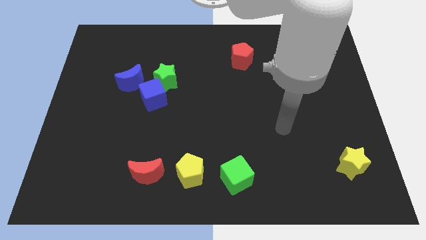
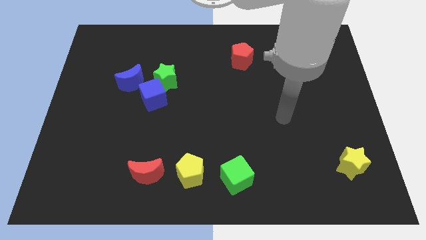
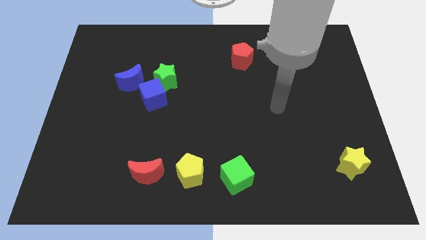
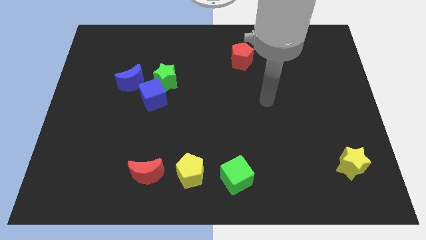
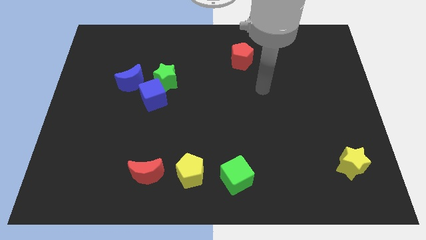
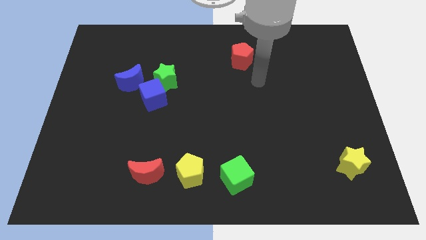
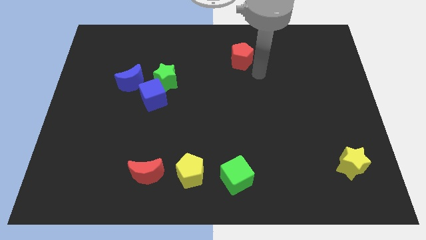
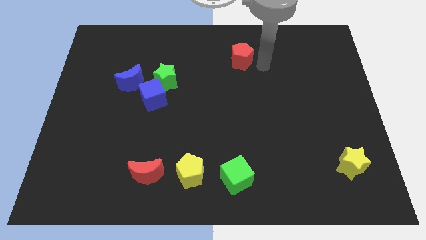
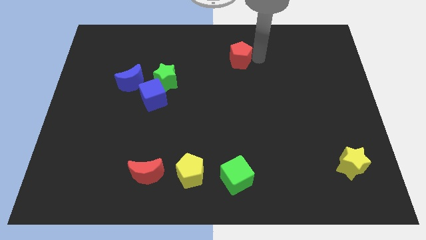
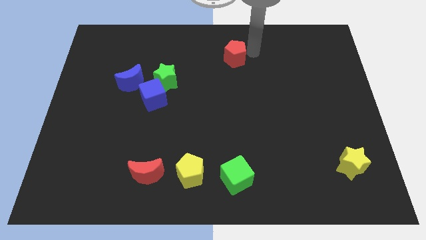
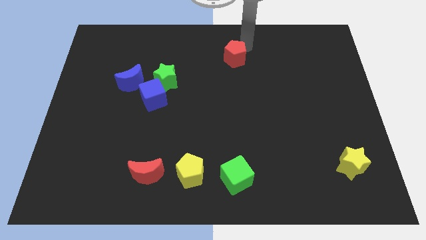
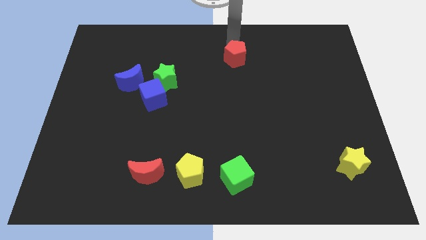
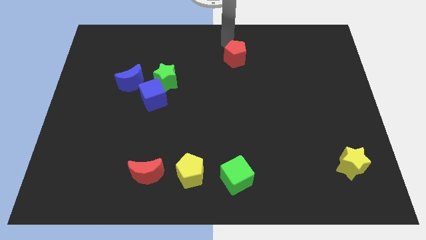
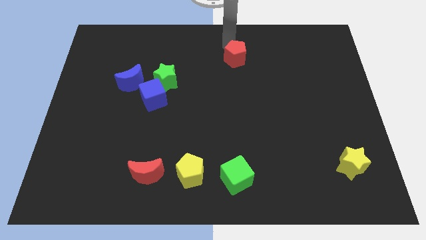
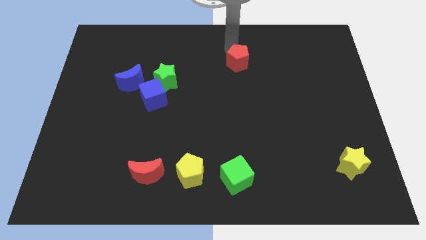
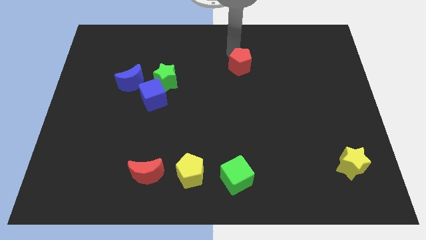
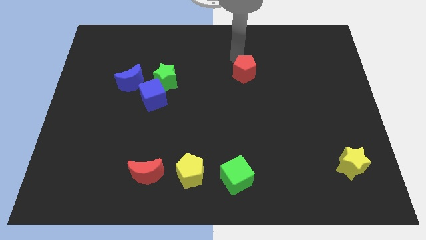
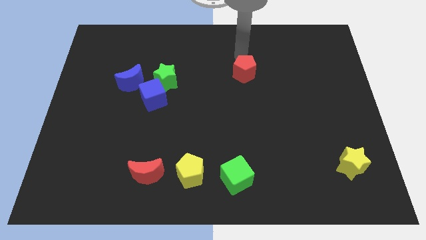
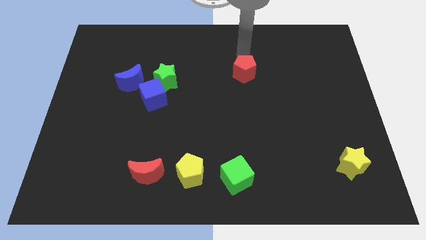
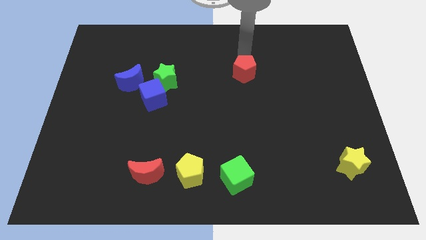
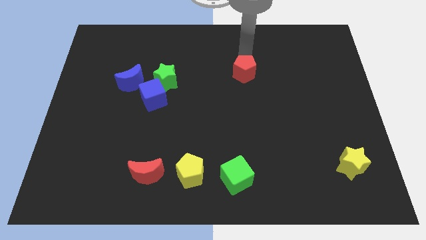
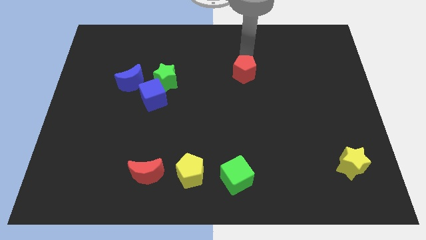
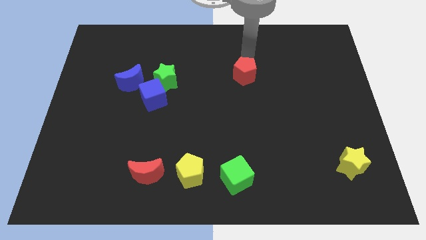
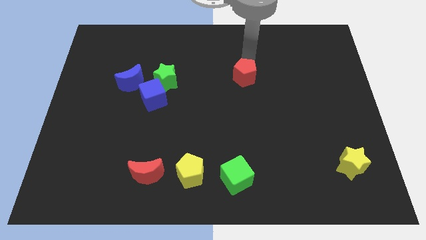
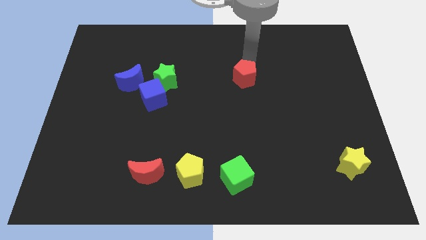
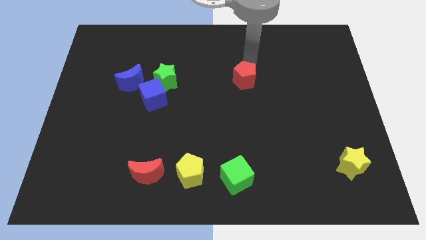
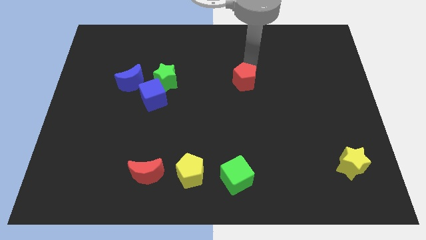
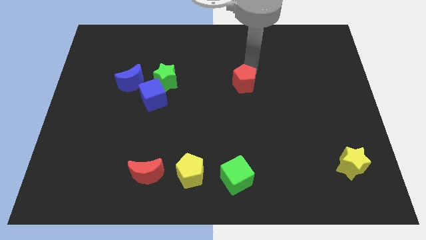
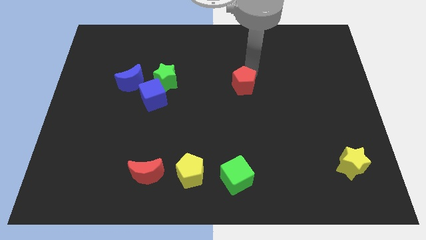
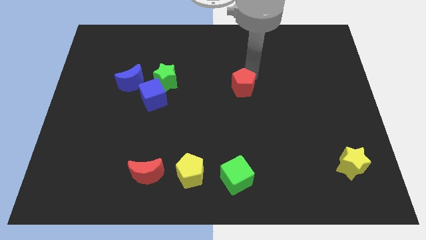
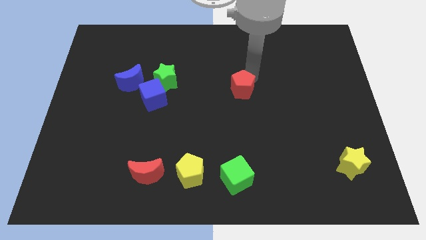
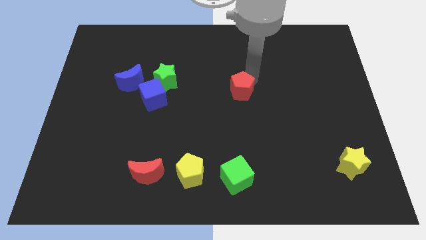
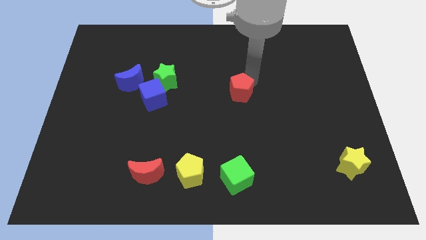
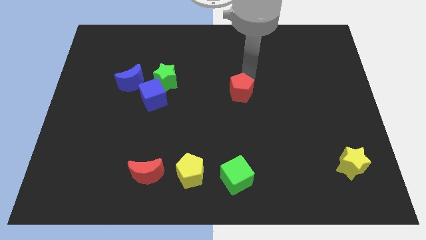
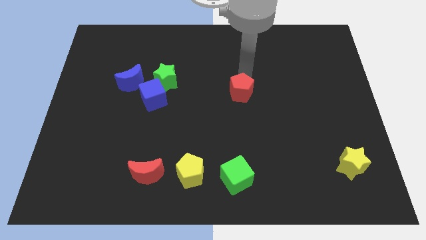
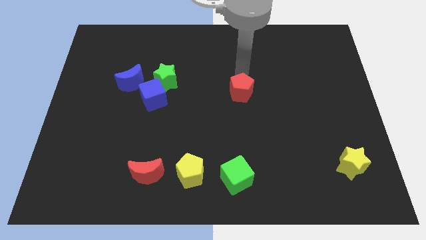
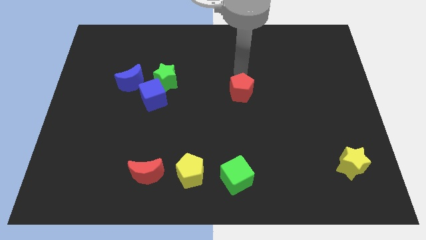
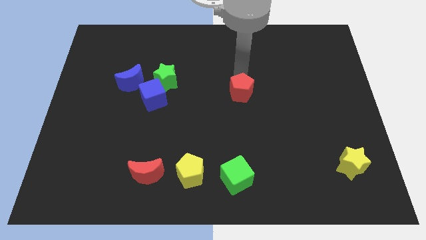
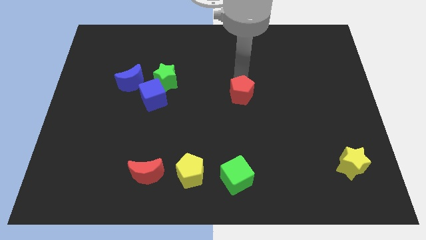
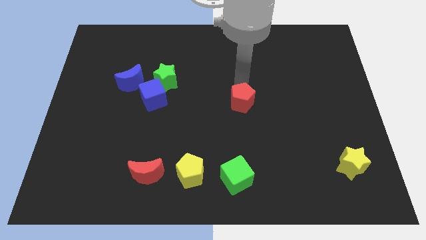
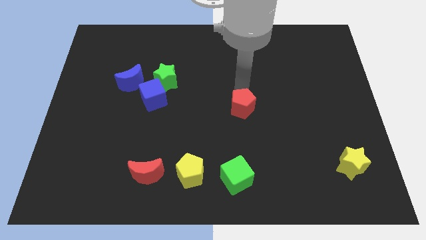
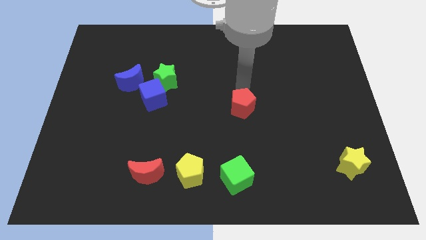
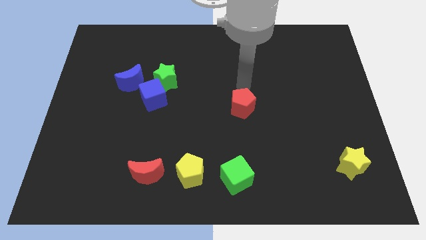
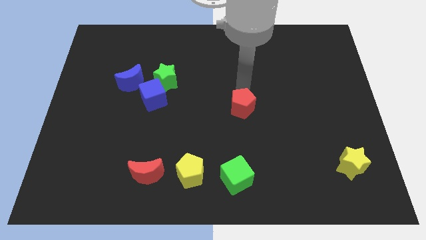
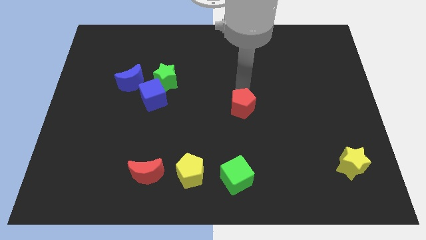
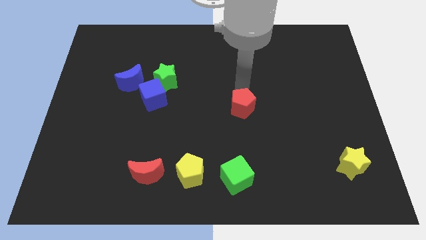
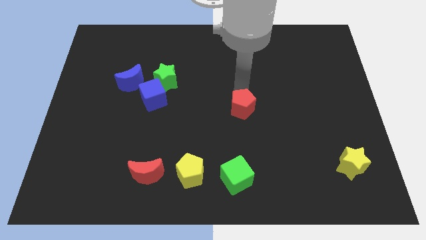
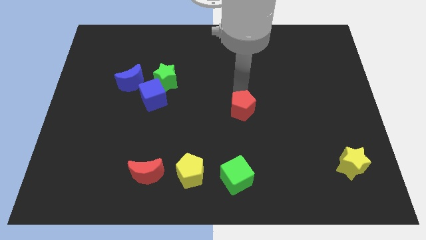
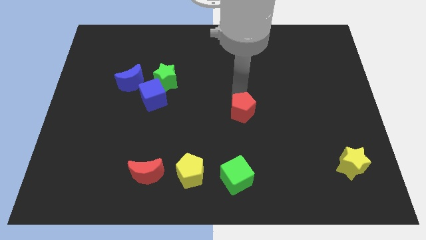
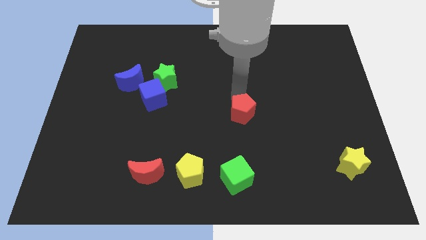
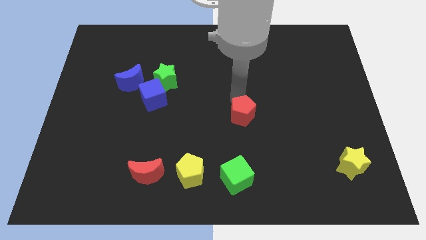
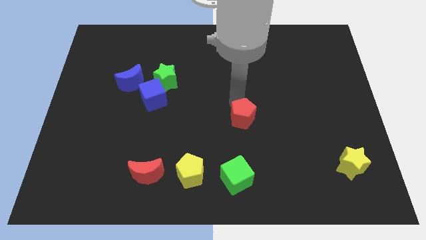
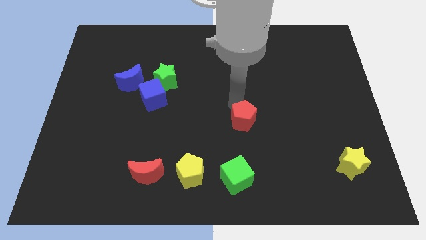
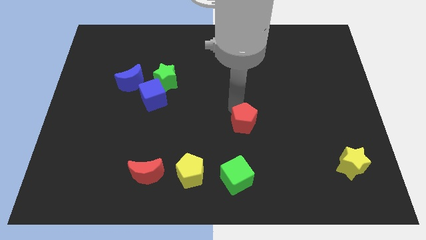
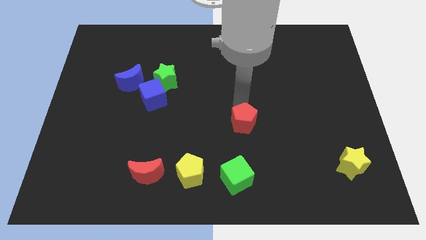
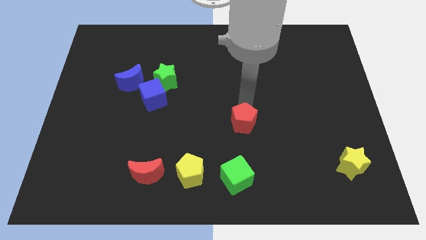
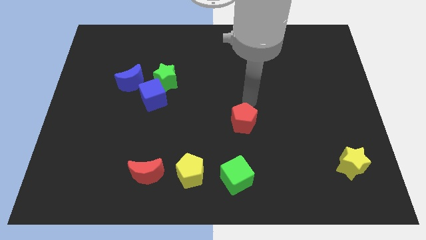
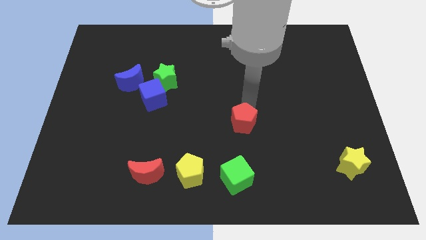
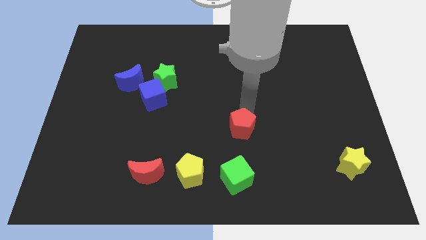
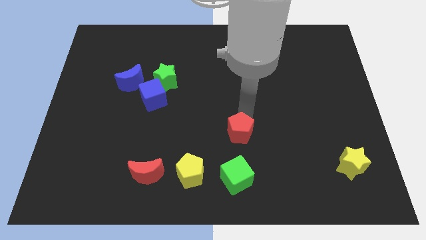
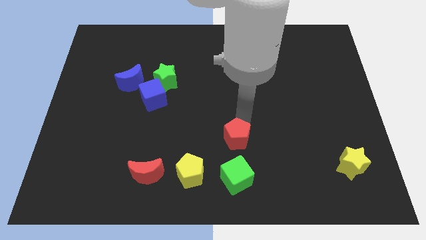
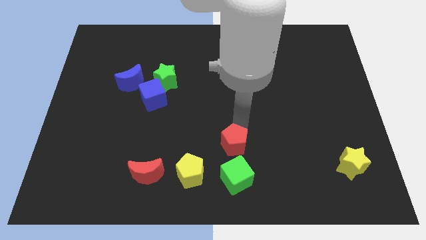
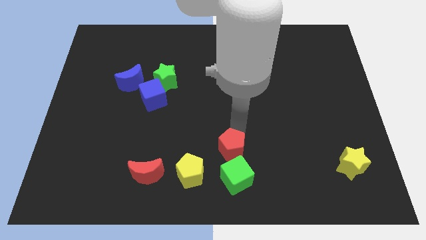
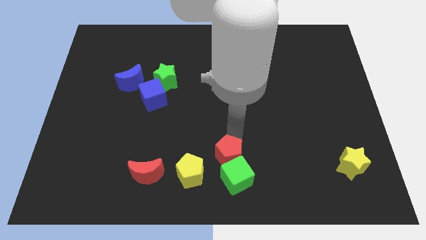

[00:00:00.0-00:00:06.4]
move the red pentagon towards the green cube

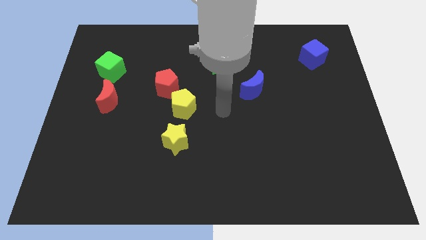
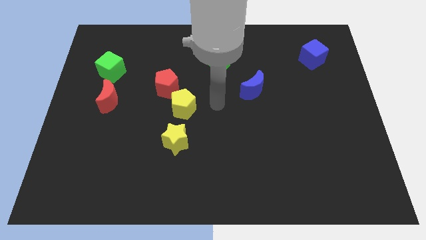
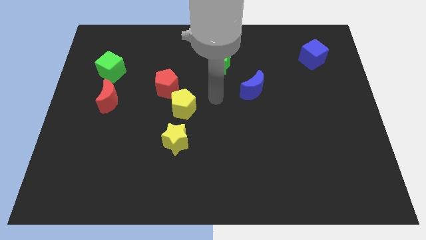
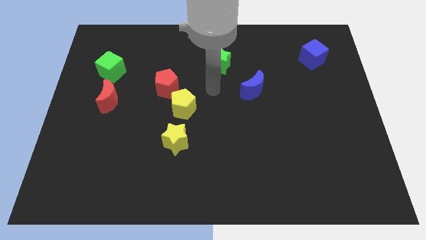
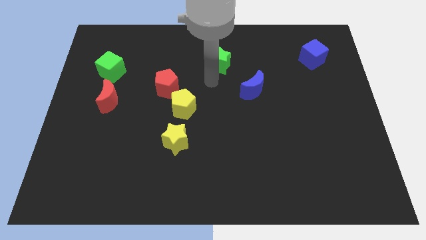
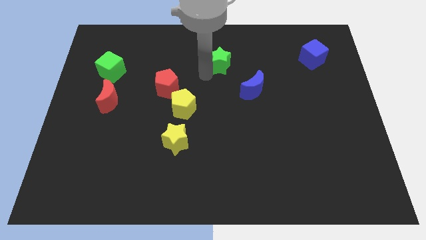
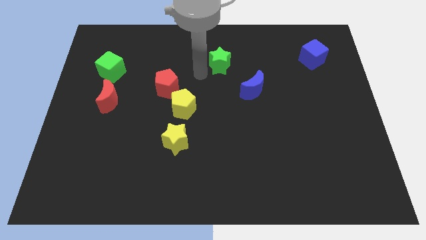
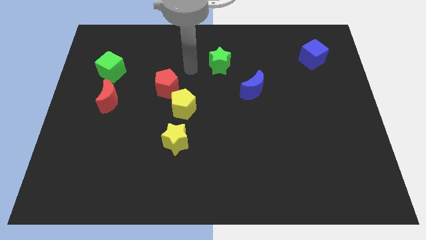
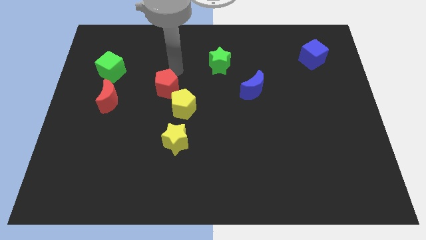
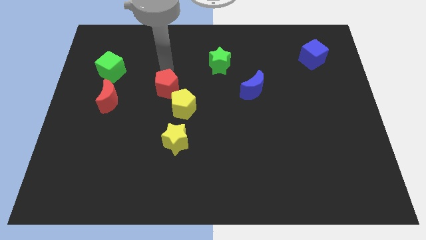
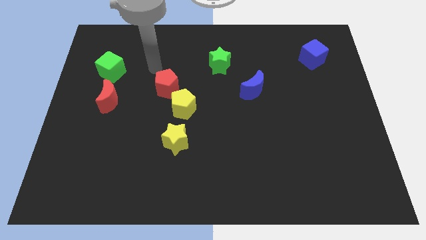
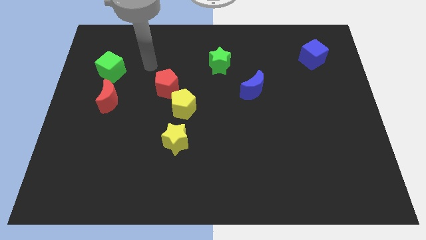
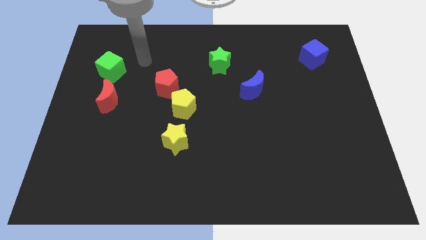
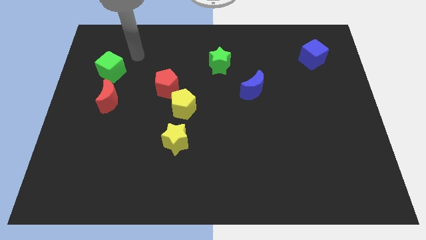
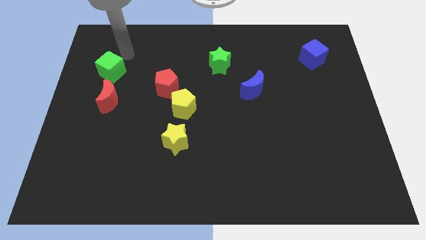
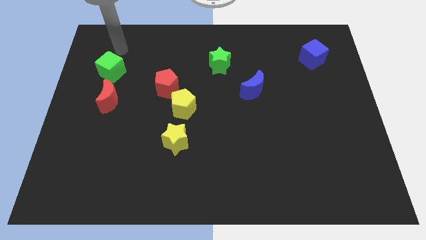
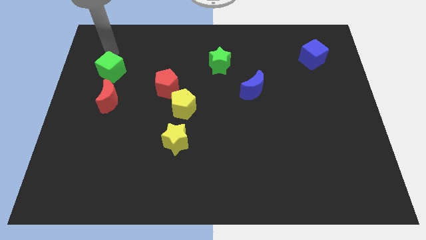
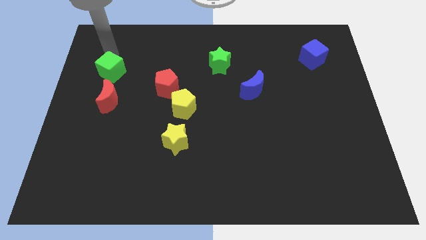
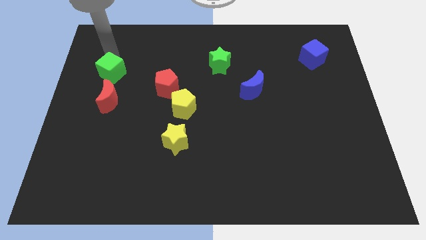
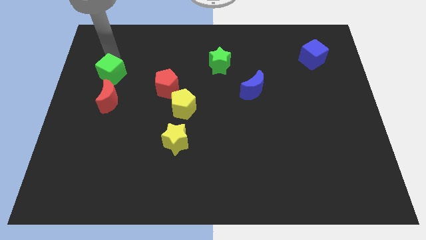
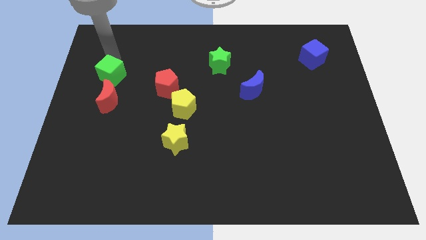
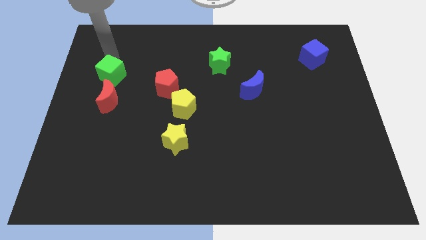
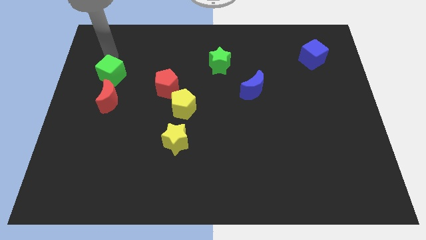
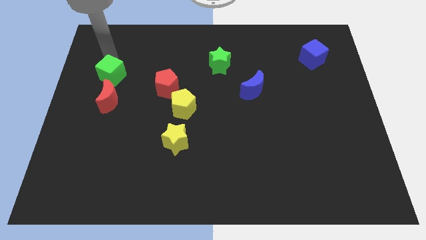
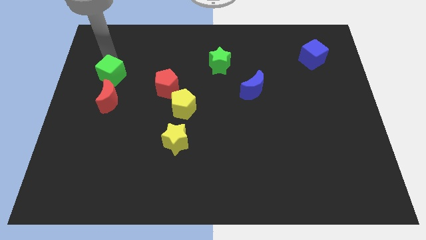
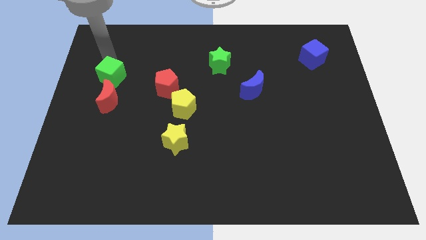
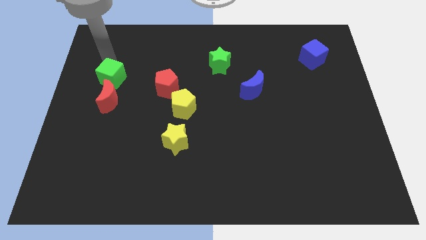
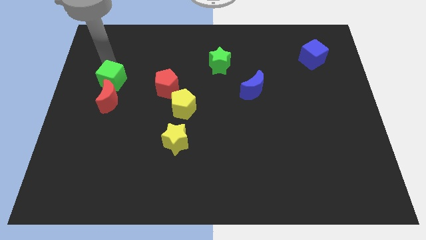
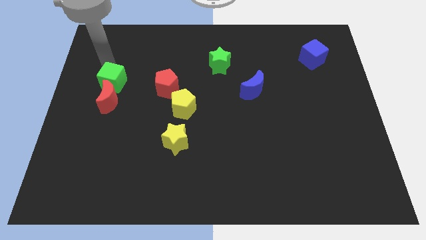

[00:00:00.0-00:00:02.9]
push the green cube to the red moon
